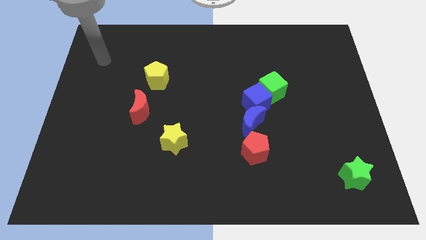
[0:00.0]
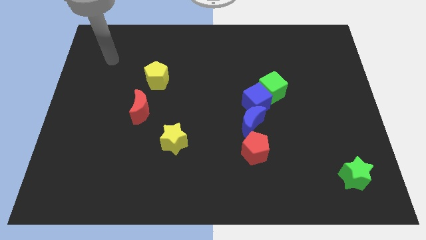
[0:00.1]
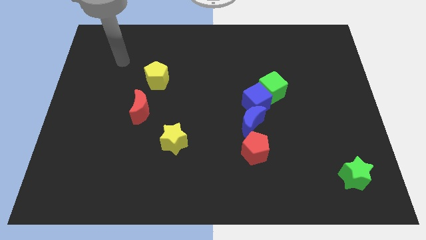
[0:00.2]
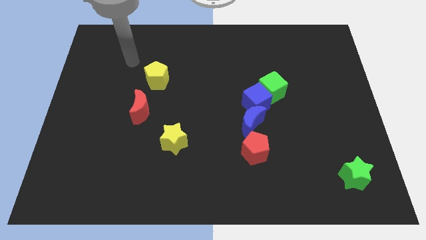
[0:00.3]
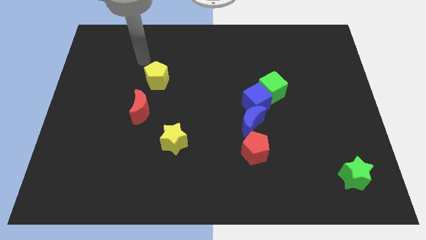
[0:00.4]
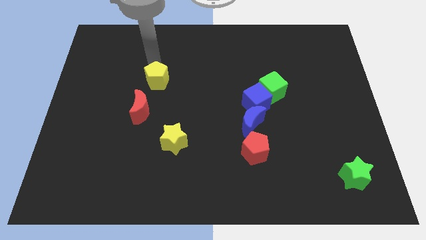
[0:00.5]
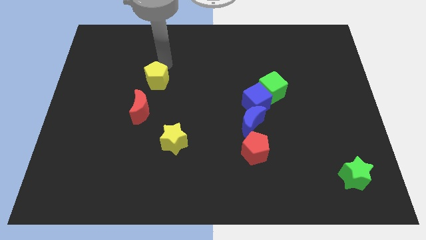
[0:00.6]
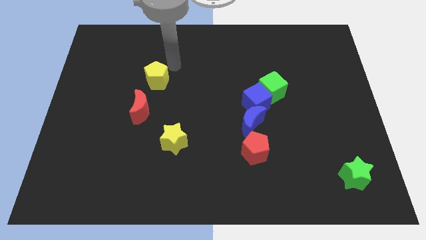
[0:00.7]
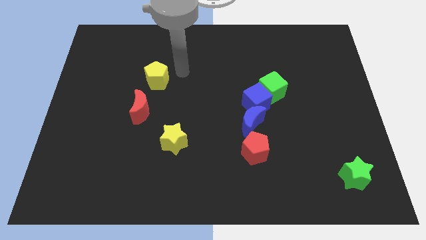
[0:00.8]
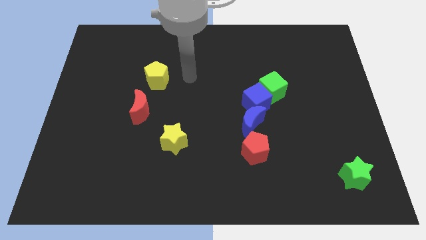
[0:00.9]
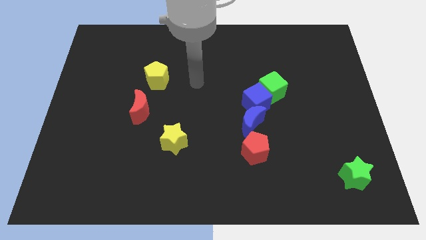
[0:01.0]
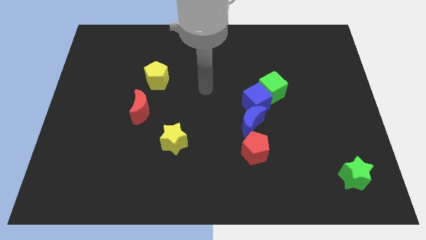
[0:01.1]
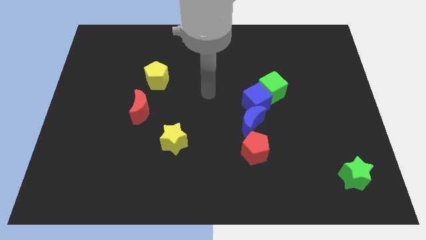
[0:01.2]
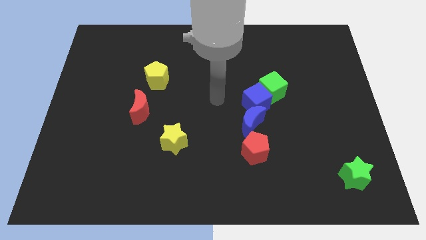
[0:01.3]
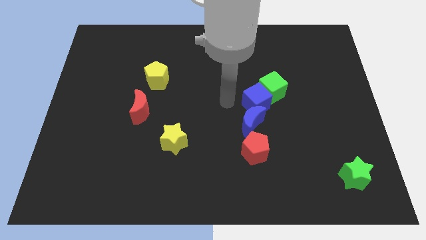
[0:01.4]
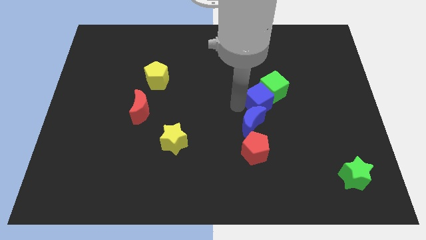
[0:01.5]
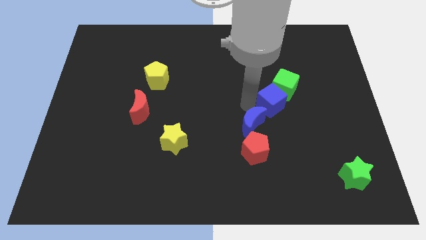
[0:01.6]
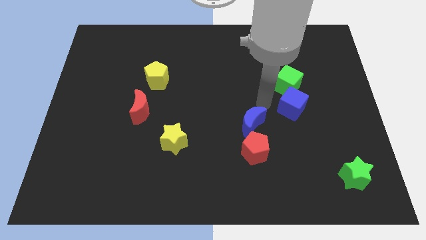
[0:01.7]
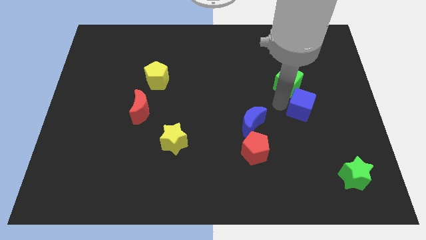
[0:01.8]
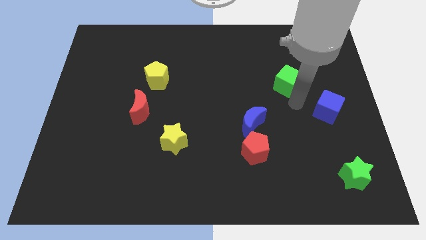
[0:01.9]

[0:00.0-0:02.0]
separate the green cube from the blue cube

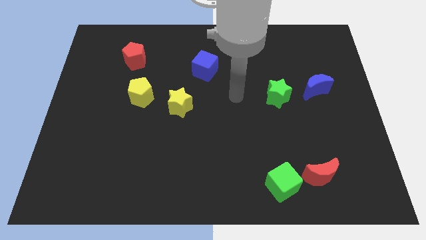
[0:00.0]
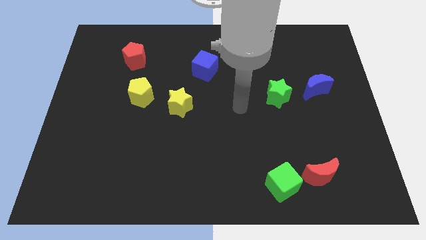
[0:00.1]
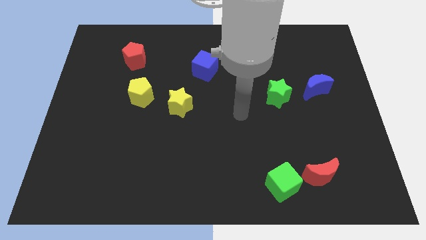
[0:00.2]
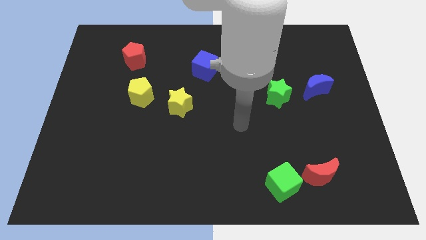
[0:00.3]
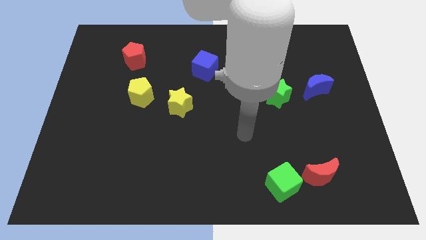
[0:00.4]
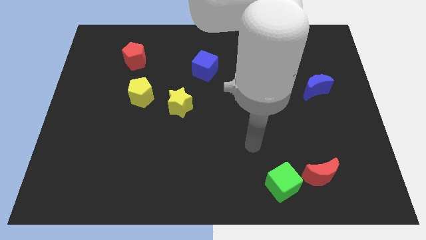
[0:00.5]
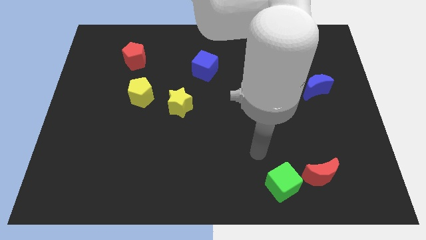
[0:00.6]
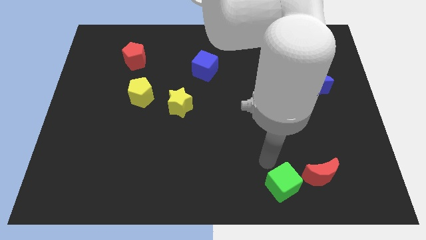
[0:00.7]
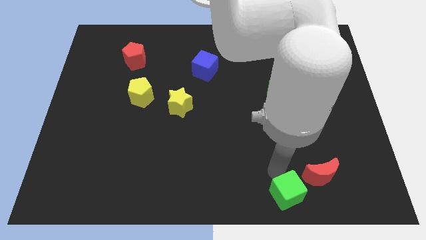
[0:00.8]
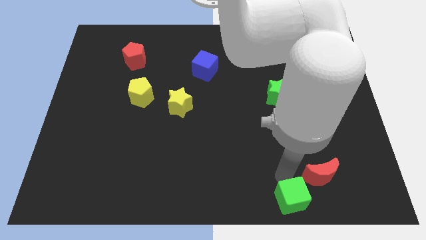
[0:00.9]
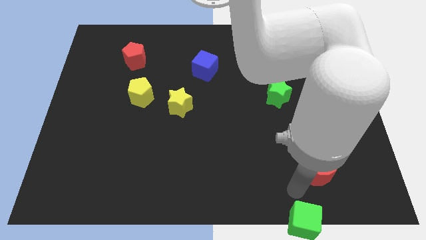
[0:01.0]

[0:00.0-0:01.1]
separate the red moon from the green cube

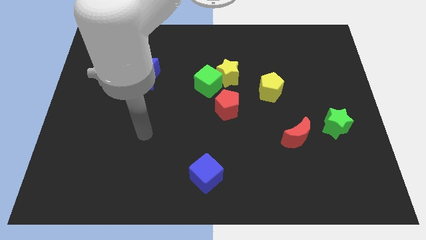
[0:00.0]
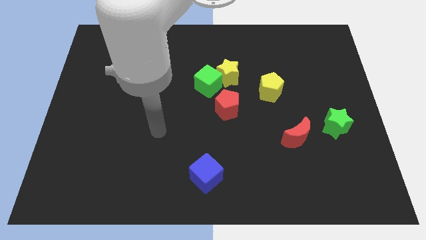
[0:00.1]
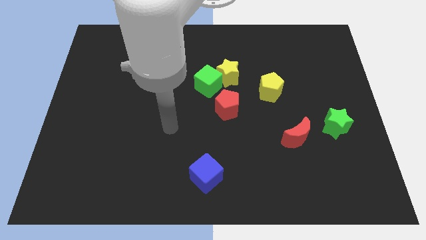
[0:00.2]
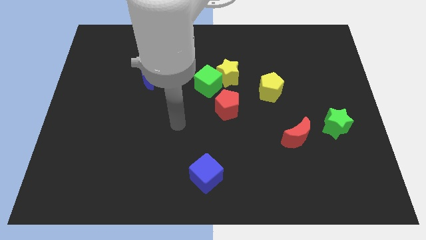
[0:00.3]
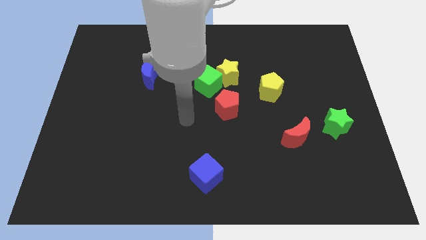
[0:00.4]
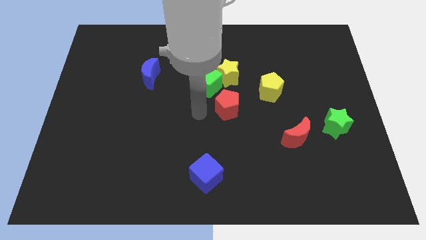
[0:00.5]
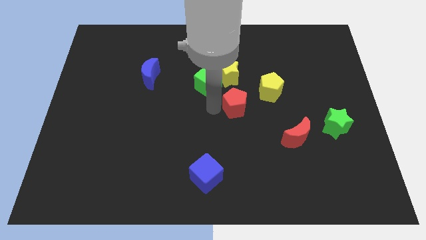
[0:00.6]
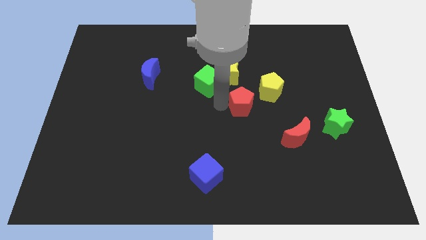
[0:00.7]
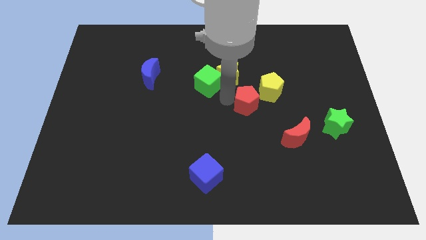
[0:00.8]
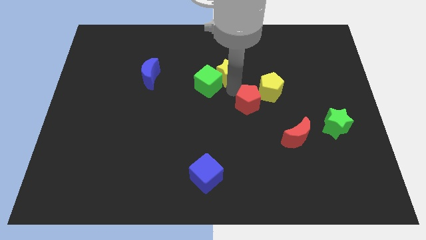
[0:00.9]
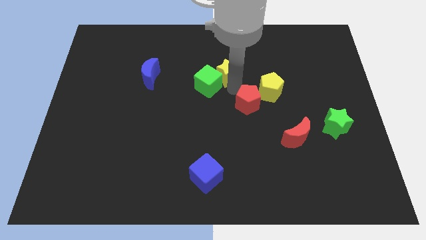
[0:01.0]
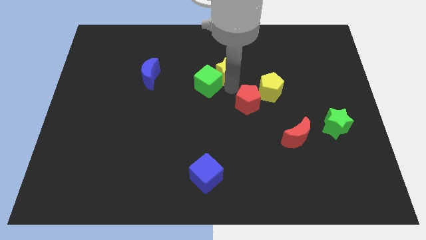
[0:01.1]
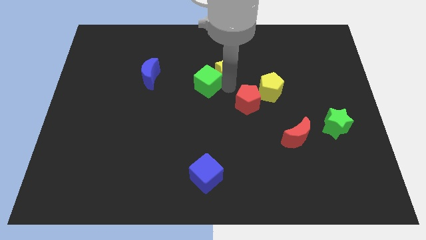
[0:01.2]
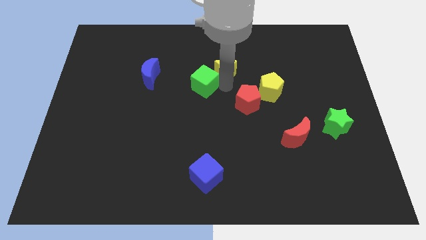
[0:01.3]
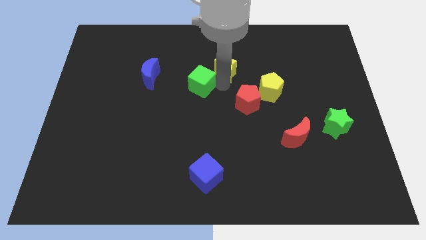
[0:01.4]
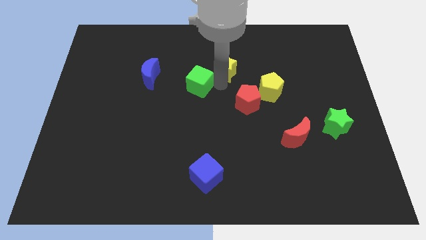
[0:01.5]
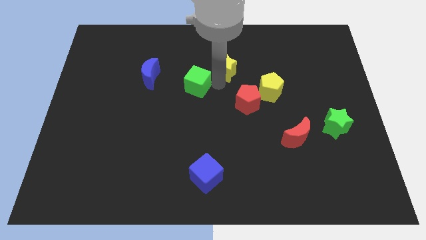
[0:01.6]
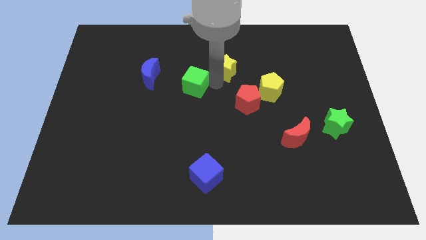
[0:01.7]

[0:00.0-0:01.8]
pull the green cube apart from the yellow star and red pentagon

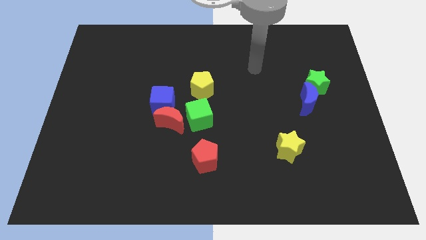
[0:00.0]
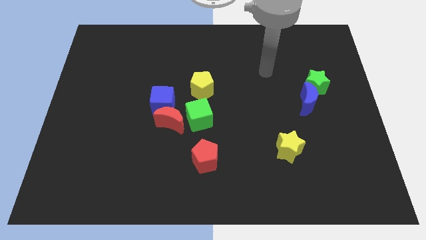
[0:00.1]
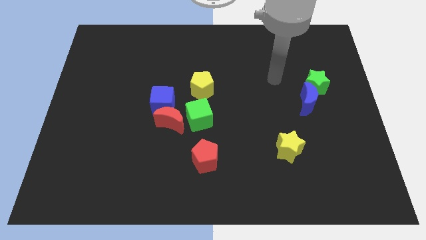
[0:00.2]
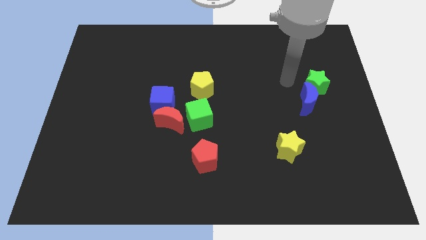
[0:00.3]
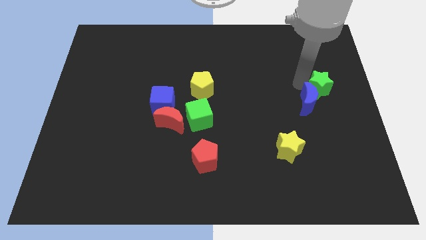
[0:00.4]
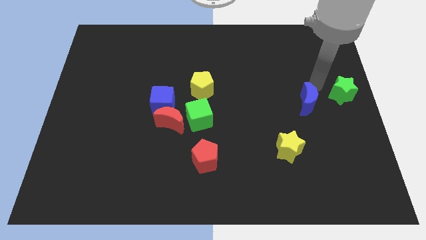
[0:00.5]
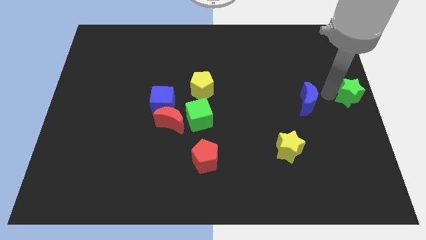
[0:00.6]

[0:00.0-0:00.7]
separate the blue moon from the green star

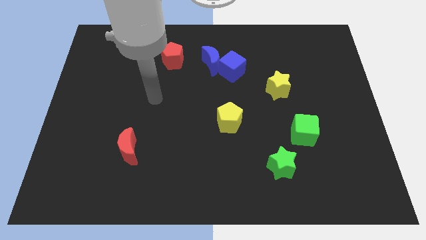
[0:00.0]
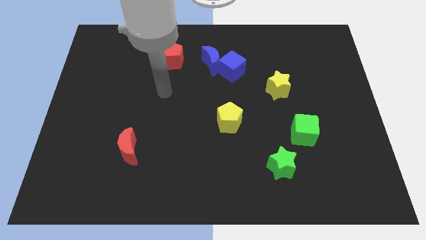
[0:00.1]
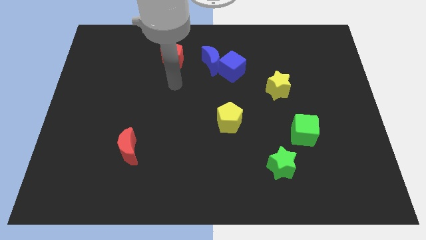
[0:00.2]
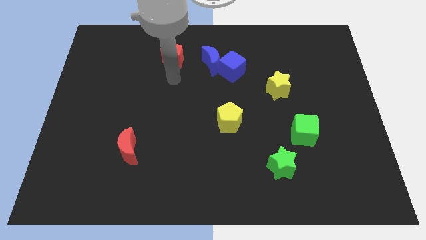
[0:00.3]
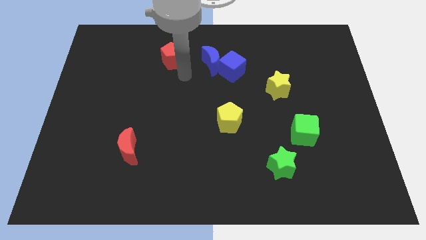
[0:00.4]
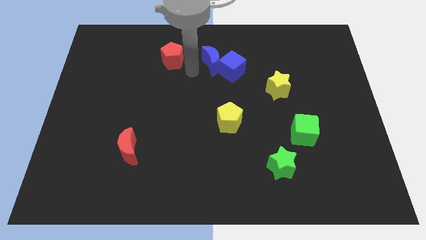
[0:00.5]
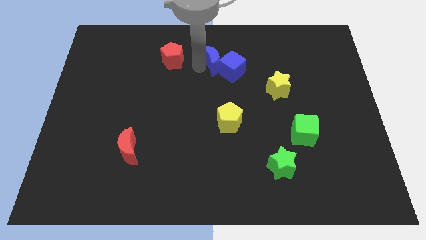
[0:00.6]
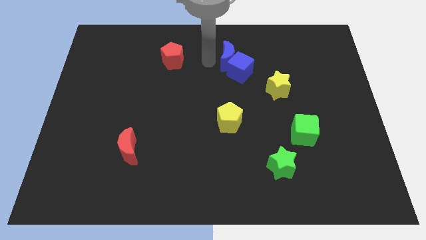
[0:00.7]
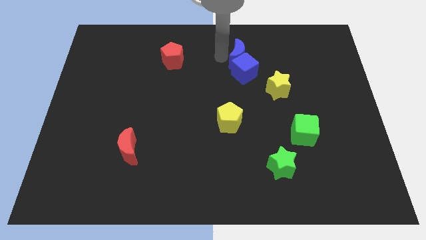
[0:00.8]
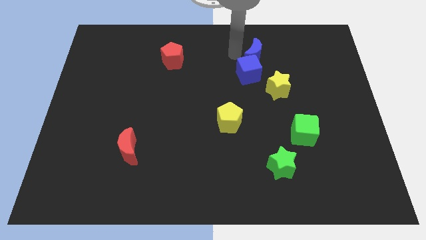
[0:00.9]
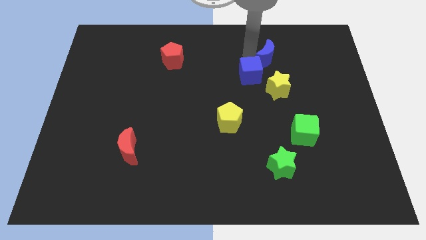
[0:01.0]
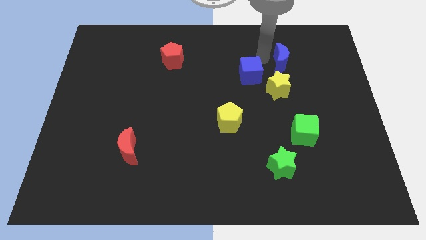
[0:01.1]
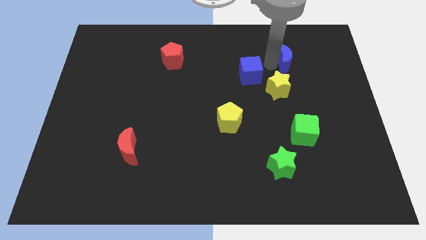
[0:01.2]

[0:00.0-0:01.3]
pull the blue cube apart from the blue moon

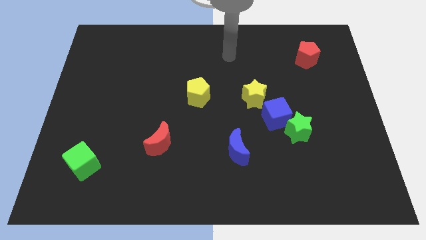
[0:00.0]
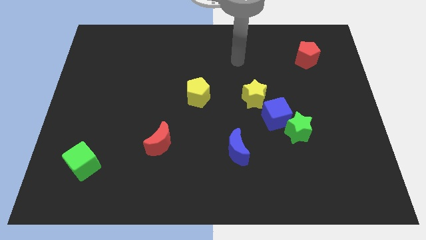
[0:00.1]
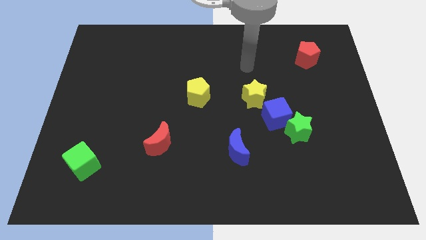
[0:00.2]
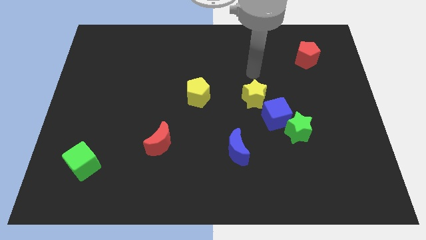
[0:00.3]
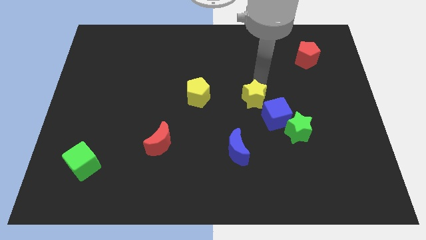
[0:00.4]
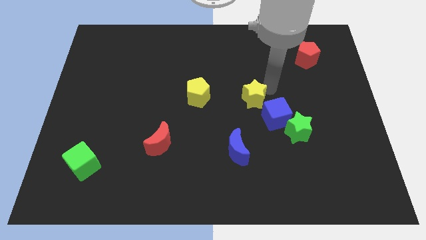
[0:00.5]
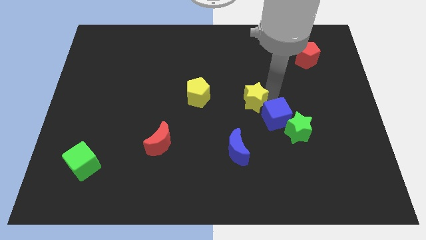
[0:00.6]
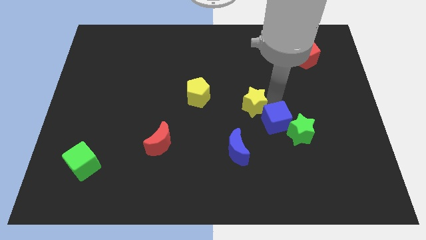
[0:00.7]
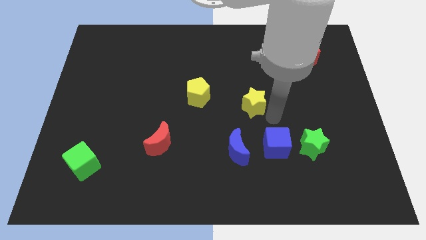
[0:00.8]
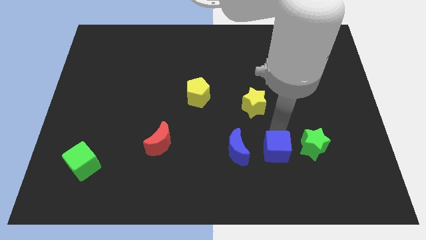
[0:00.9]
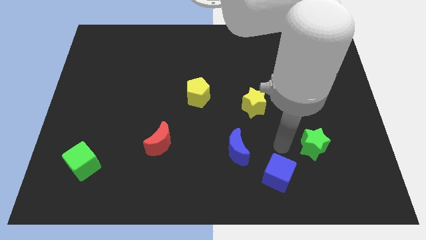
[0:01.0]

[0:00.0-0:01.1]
move the green star away from the blue cube

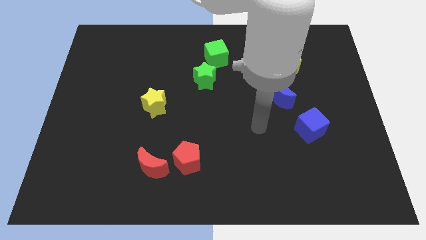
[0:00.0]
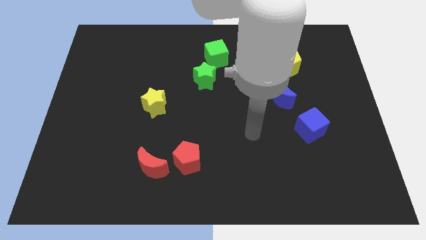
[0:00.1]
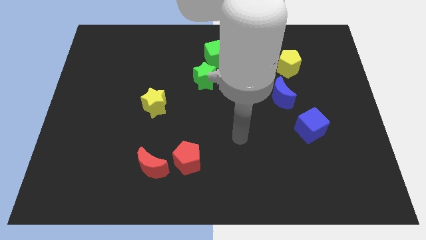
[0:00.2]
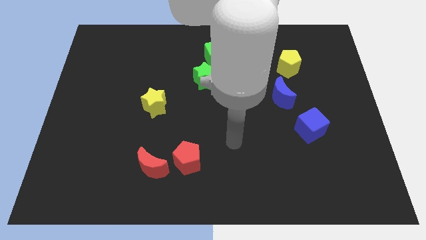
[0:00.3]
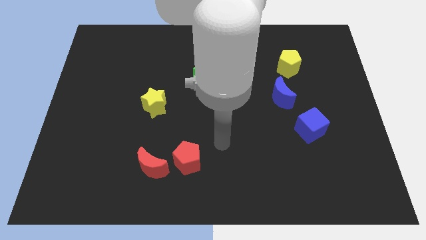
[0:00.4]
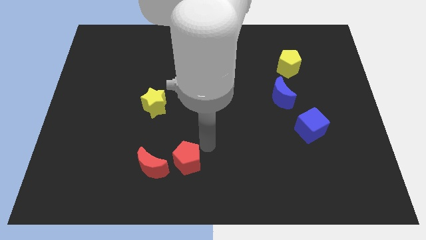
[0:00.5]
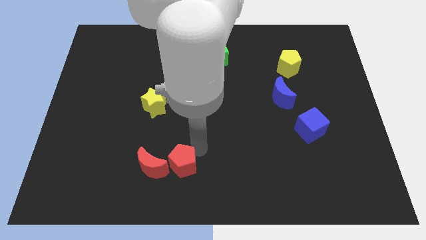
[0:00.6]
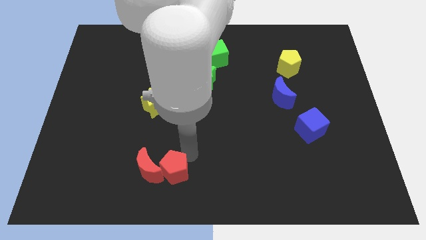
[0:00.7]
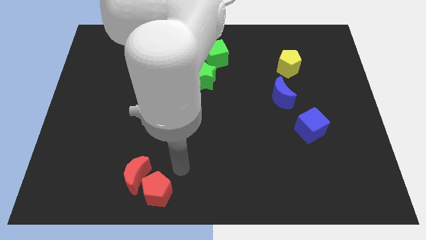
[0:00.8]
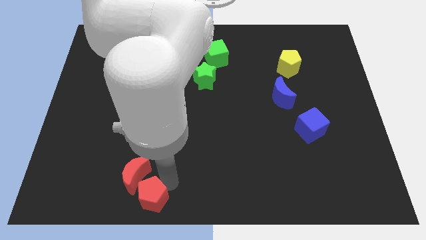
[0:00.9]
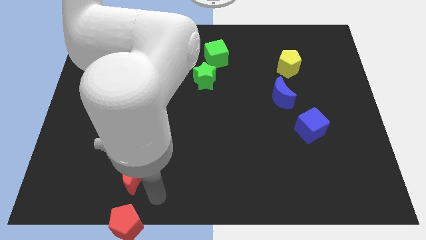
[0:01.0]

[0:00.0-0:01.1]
move the red moon away from the red pentagon
